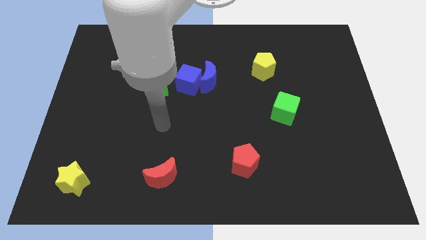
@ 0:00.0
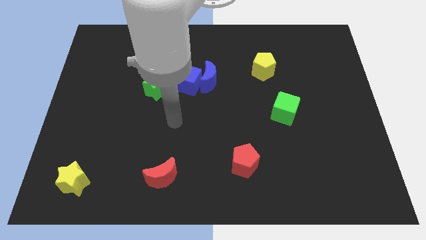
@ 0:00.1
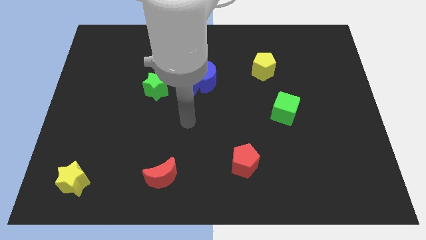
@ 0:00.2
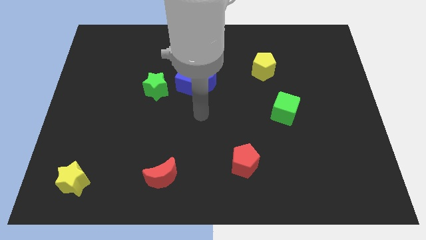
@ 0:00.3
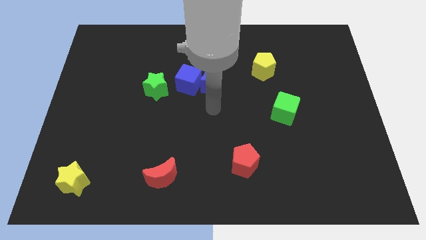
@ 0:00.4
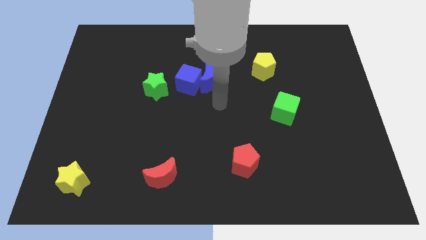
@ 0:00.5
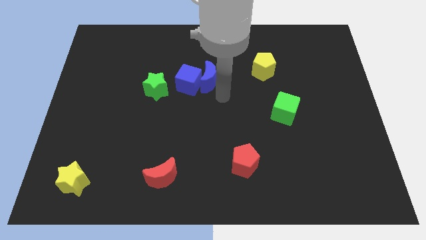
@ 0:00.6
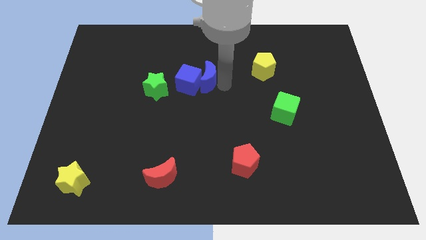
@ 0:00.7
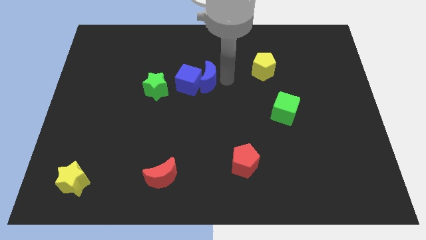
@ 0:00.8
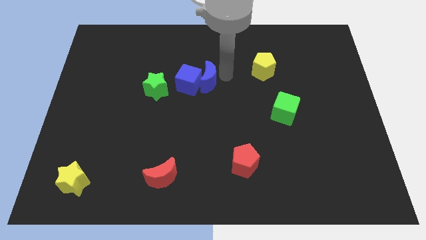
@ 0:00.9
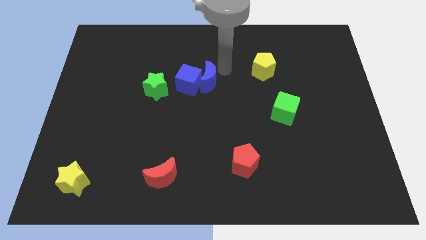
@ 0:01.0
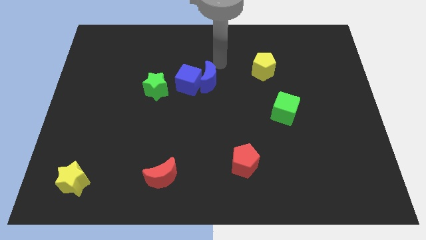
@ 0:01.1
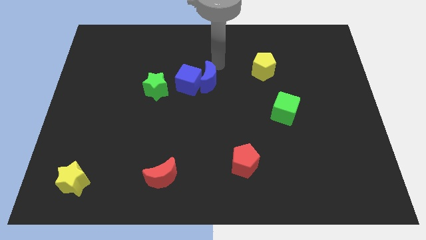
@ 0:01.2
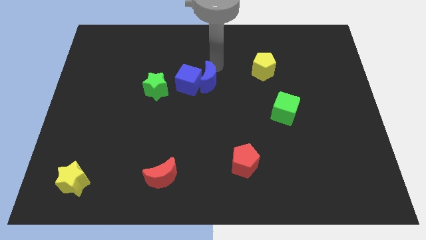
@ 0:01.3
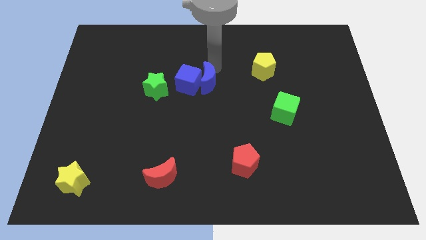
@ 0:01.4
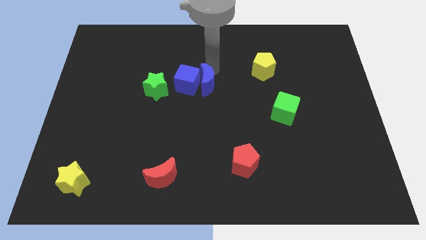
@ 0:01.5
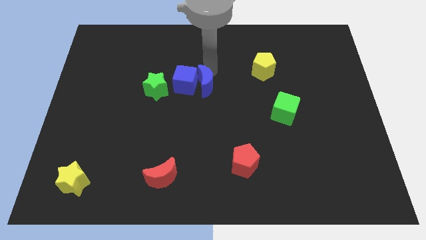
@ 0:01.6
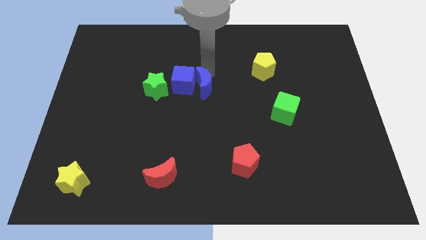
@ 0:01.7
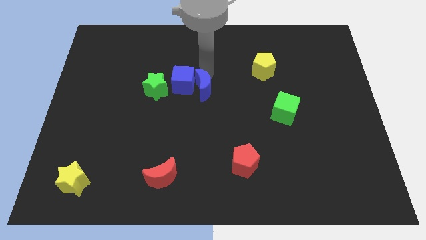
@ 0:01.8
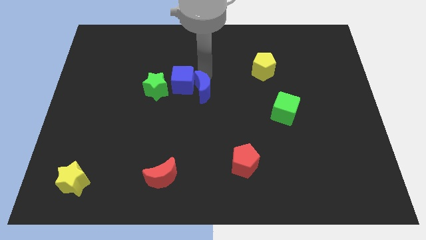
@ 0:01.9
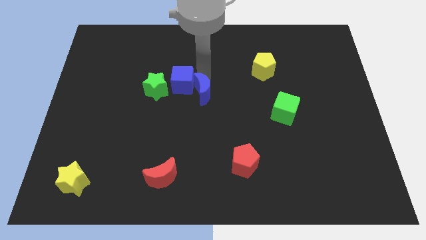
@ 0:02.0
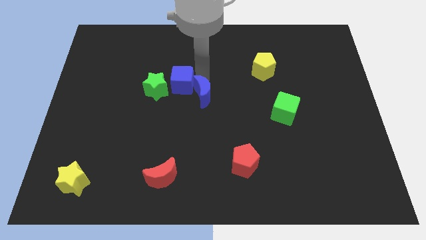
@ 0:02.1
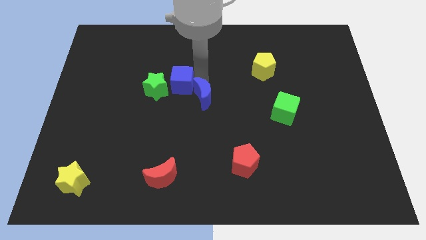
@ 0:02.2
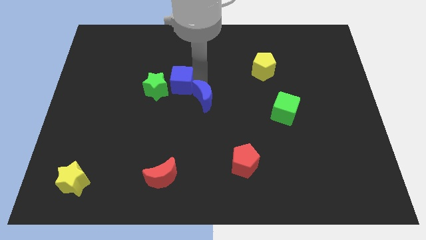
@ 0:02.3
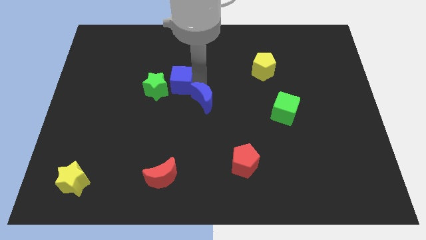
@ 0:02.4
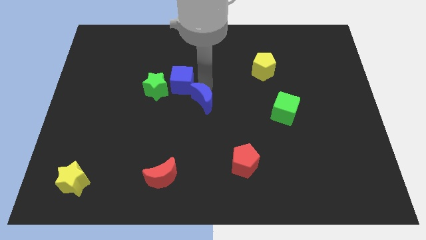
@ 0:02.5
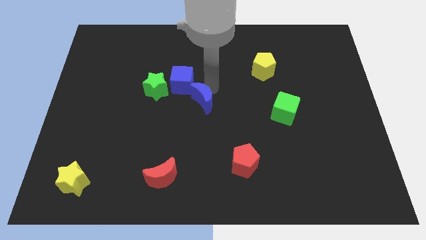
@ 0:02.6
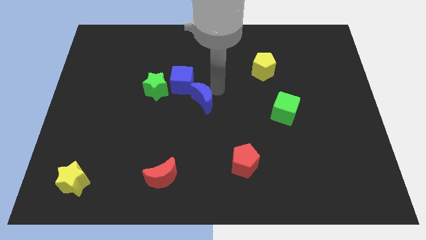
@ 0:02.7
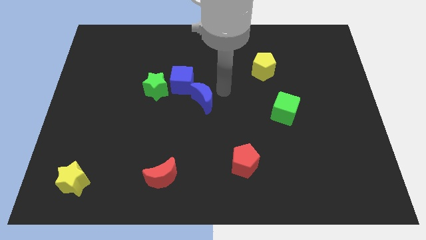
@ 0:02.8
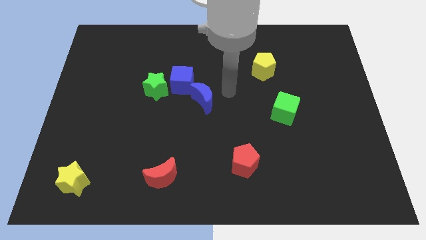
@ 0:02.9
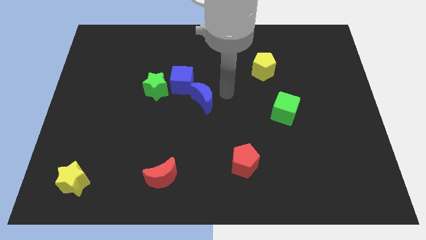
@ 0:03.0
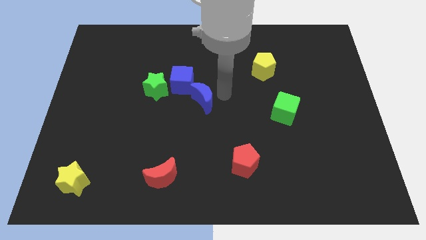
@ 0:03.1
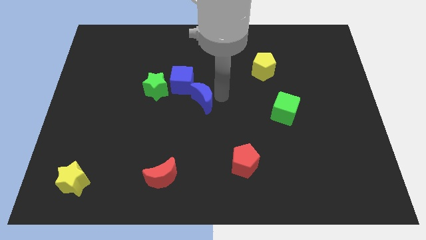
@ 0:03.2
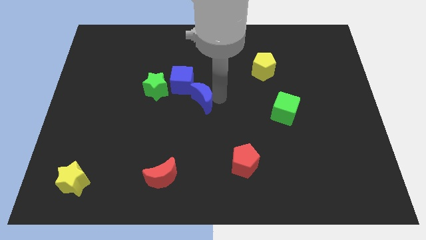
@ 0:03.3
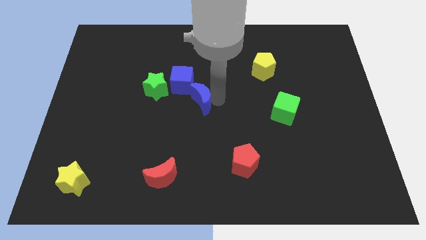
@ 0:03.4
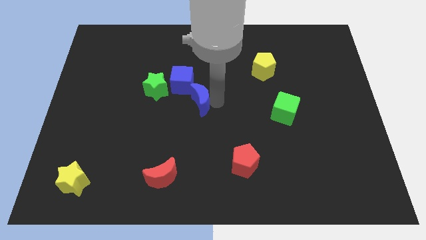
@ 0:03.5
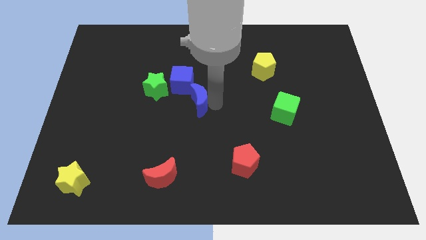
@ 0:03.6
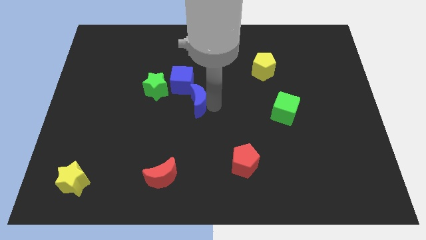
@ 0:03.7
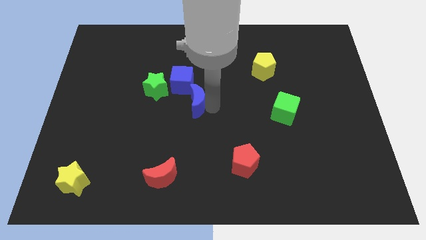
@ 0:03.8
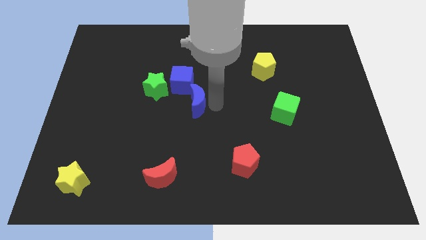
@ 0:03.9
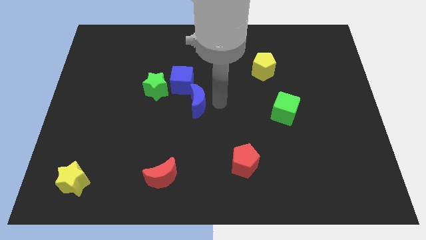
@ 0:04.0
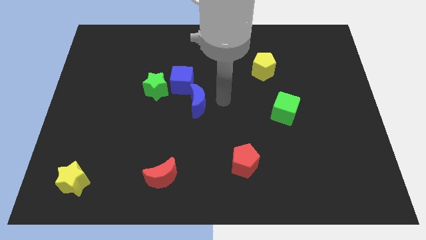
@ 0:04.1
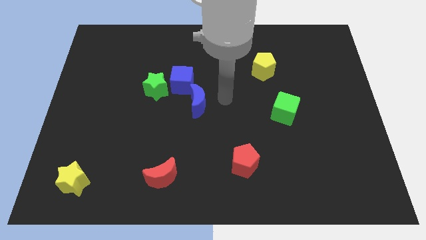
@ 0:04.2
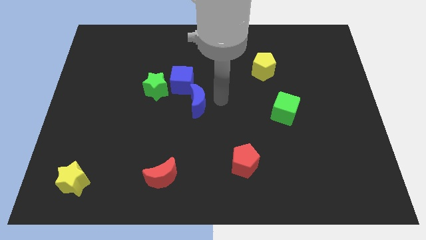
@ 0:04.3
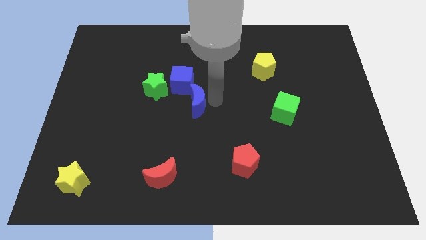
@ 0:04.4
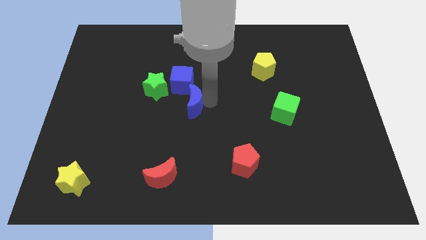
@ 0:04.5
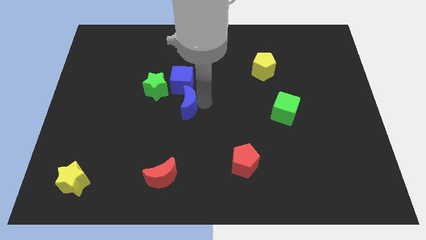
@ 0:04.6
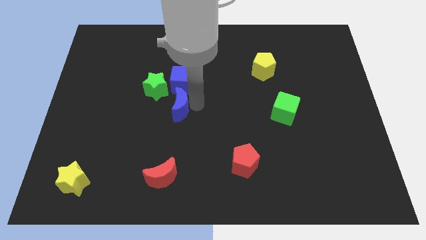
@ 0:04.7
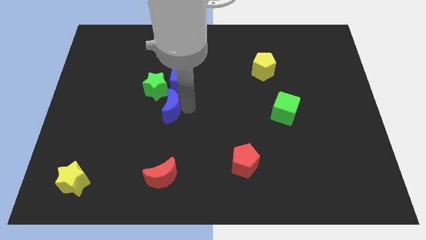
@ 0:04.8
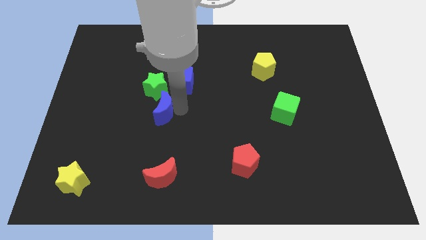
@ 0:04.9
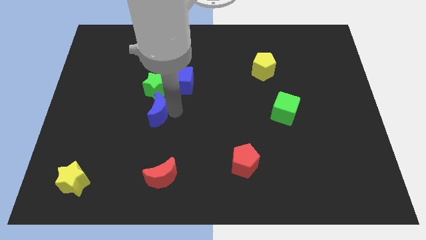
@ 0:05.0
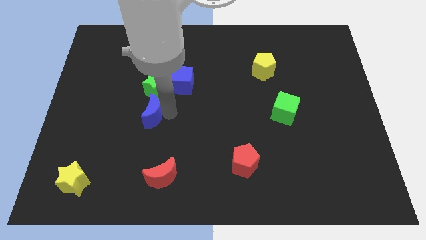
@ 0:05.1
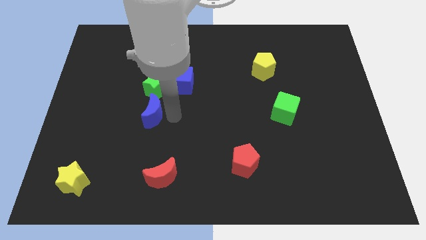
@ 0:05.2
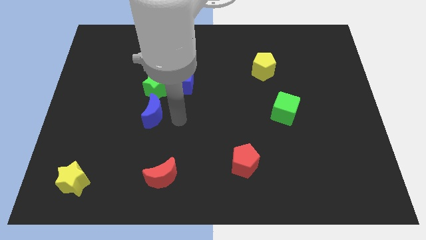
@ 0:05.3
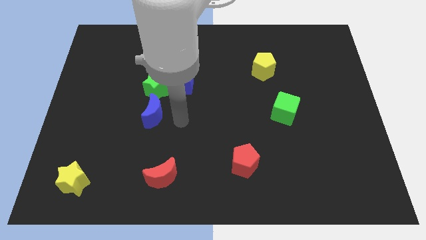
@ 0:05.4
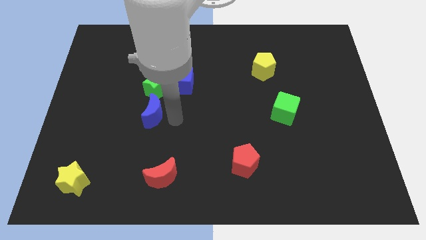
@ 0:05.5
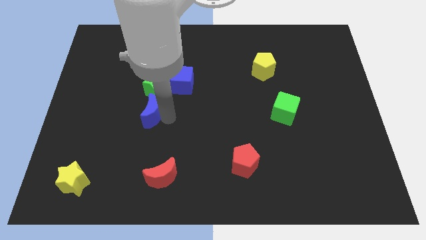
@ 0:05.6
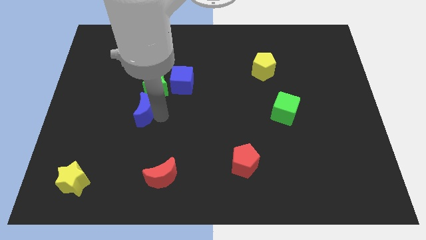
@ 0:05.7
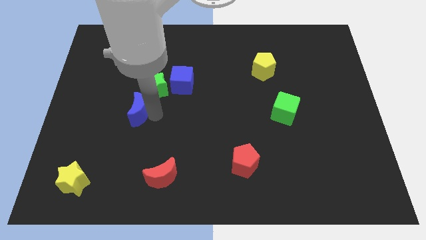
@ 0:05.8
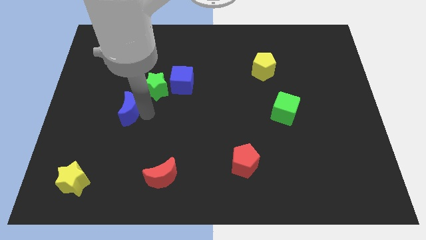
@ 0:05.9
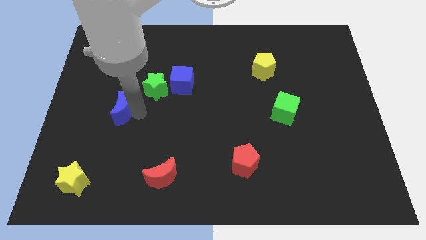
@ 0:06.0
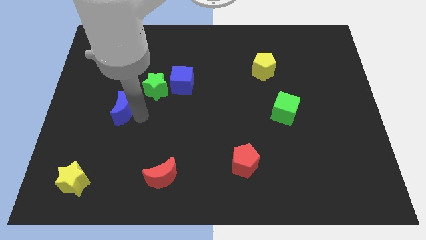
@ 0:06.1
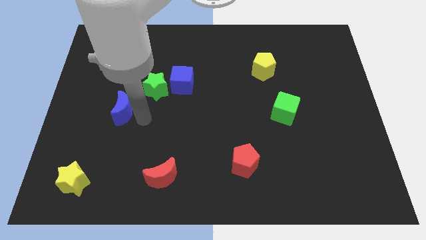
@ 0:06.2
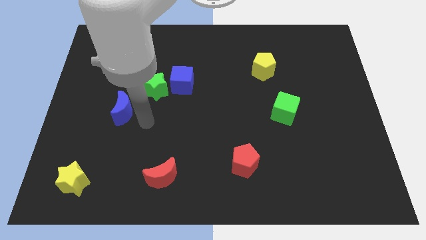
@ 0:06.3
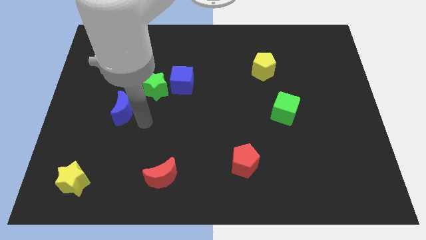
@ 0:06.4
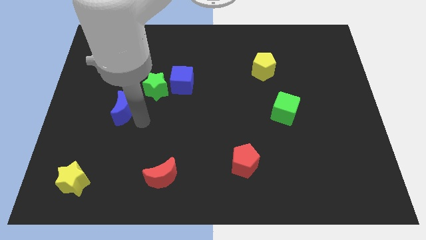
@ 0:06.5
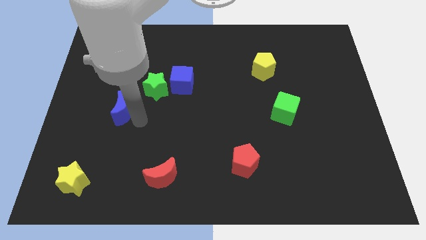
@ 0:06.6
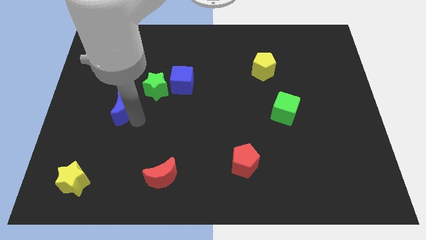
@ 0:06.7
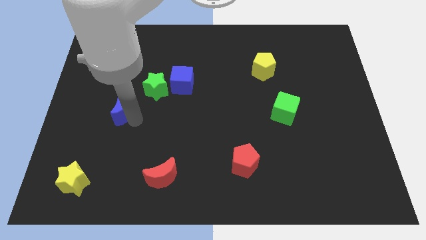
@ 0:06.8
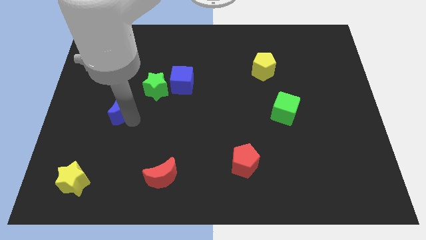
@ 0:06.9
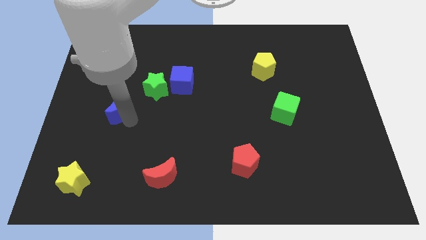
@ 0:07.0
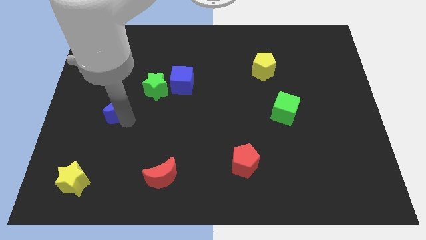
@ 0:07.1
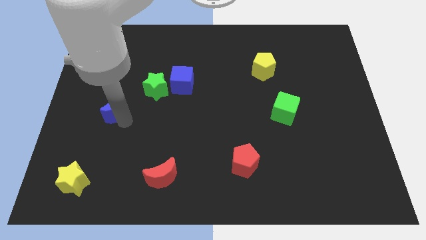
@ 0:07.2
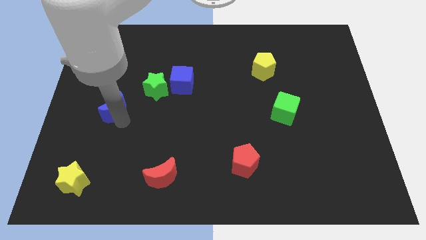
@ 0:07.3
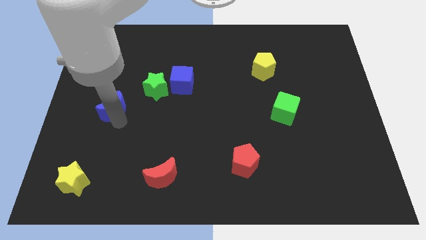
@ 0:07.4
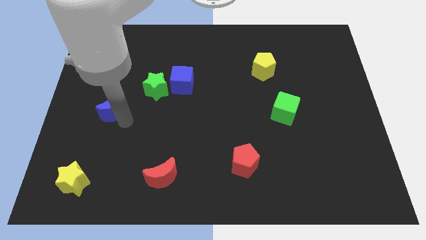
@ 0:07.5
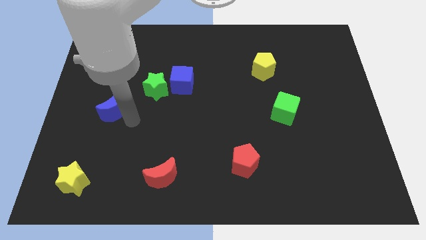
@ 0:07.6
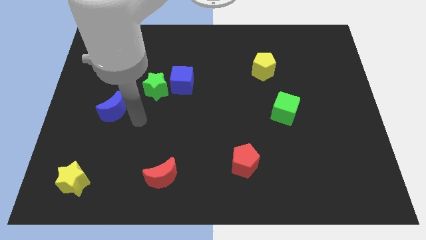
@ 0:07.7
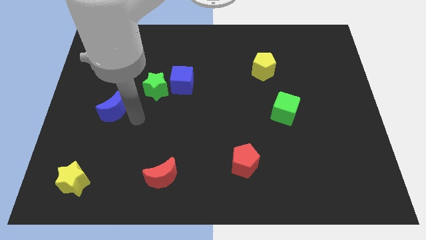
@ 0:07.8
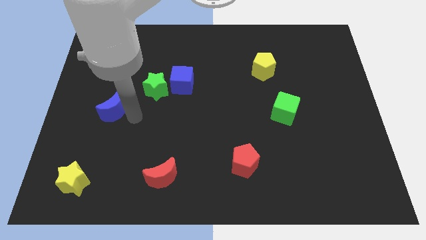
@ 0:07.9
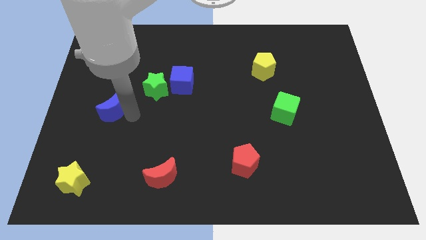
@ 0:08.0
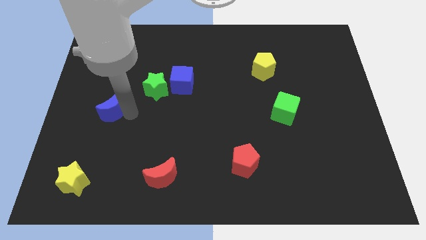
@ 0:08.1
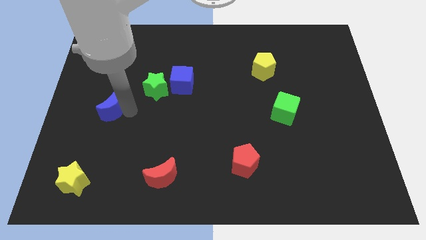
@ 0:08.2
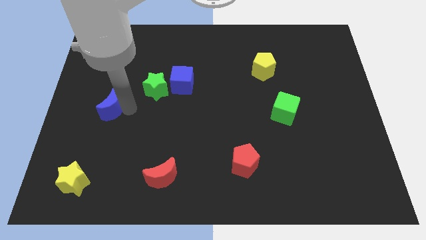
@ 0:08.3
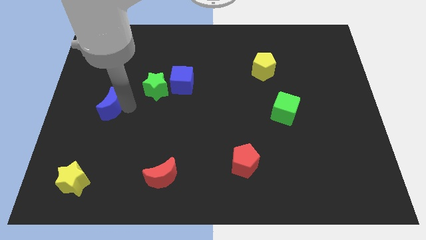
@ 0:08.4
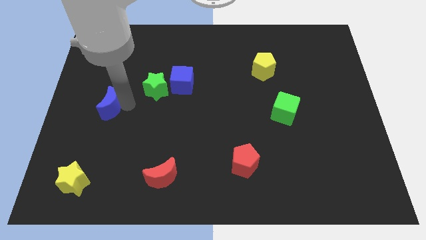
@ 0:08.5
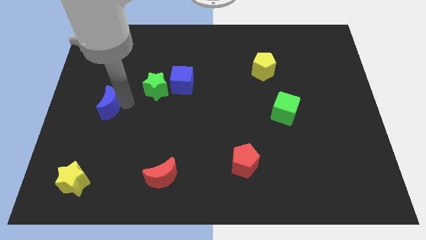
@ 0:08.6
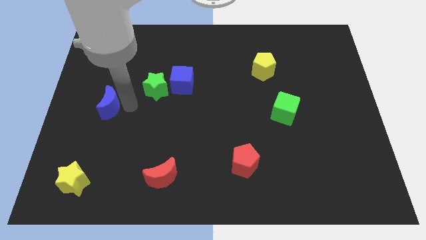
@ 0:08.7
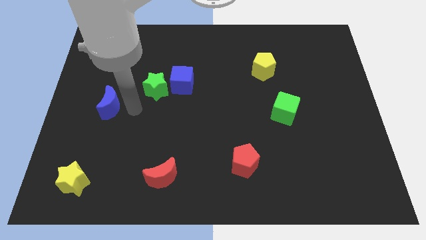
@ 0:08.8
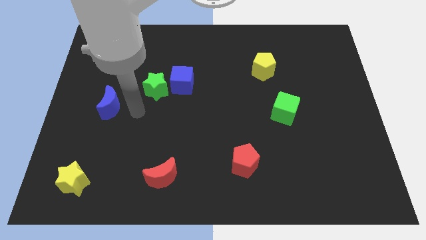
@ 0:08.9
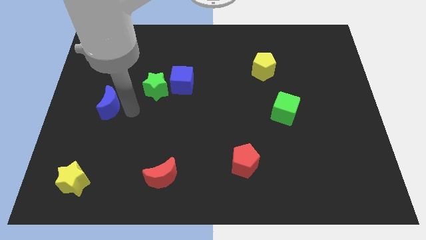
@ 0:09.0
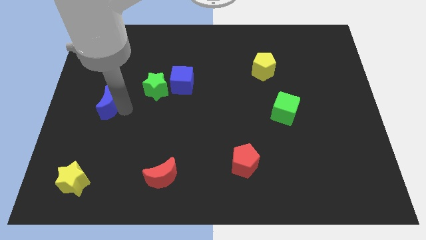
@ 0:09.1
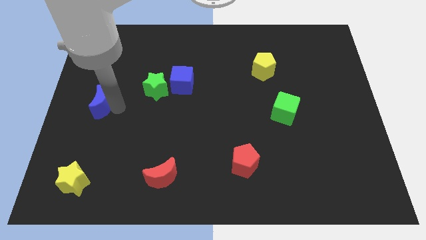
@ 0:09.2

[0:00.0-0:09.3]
slide the blue moon to the center left
